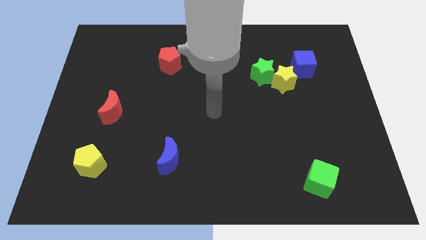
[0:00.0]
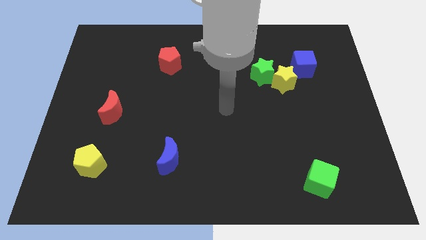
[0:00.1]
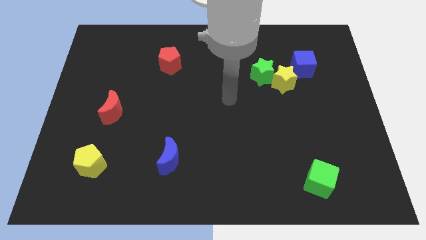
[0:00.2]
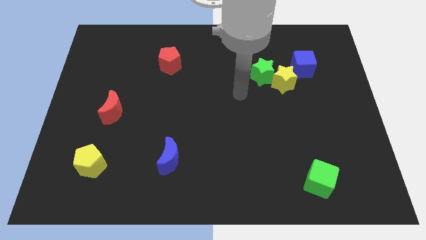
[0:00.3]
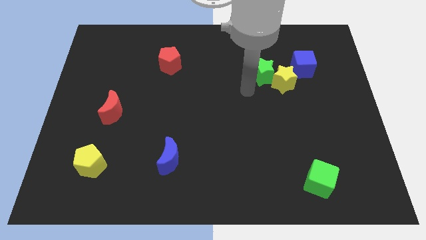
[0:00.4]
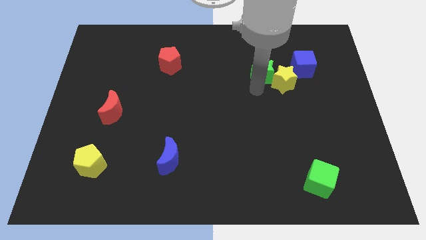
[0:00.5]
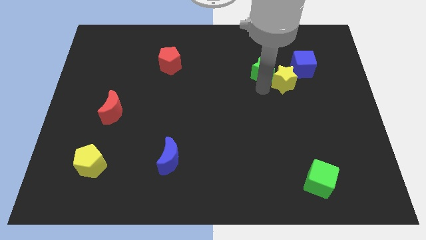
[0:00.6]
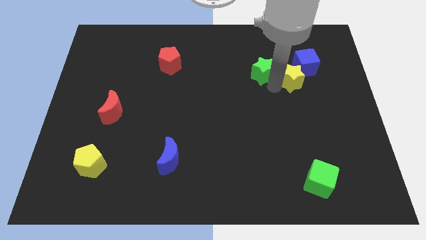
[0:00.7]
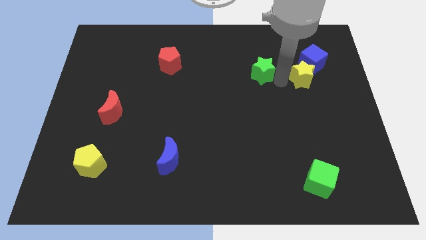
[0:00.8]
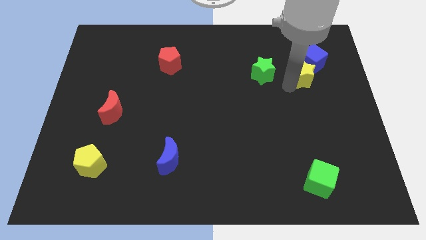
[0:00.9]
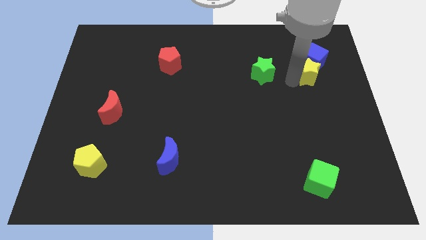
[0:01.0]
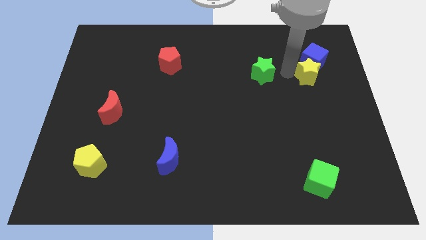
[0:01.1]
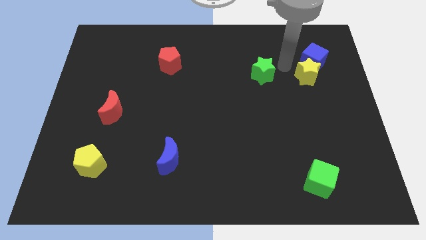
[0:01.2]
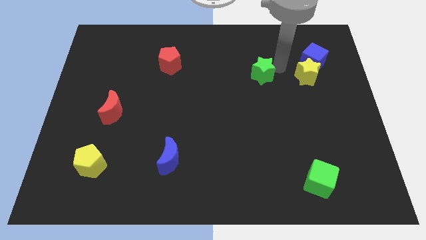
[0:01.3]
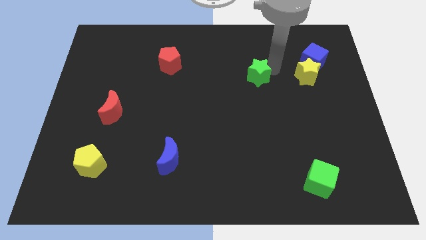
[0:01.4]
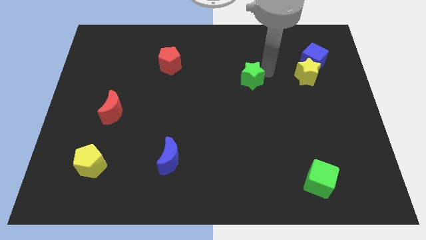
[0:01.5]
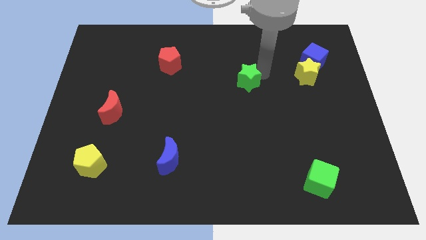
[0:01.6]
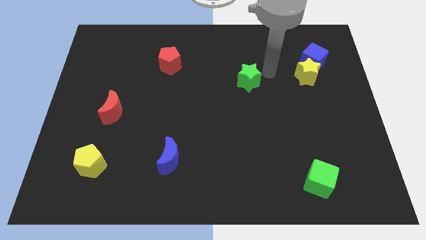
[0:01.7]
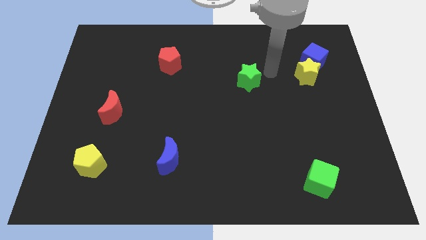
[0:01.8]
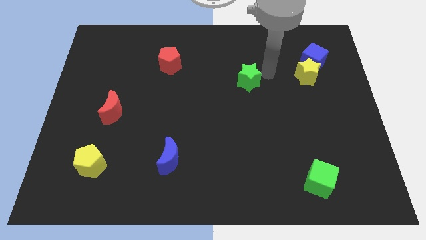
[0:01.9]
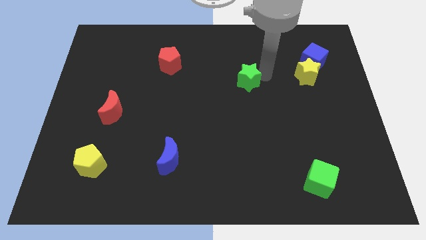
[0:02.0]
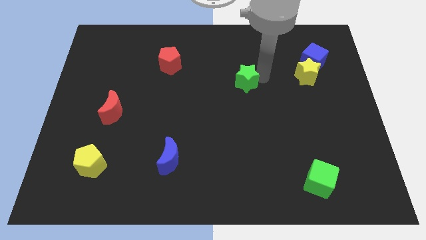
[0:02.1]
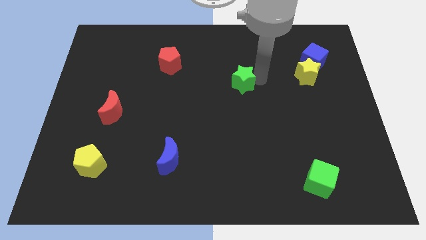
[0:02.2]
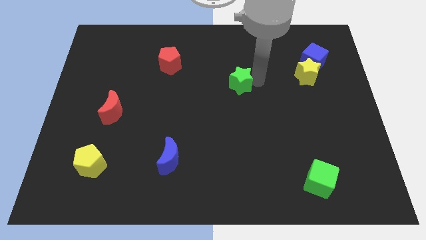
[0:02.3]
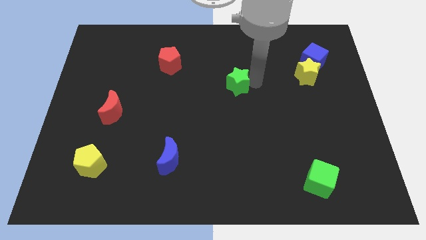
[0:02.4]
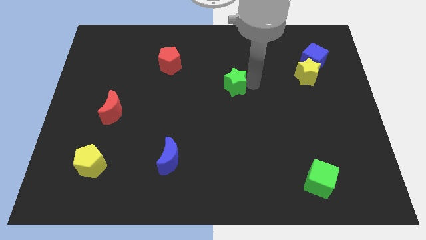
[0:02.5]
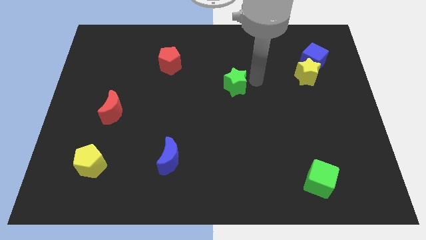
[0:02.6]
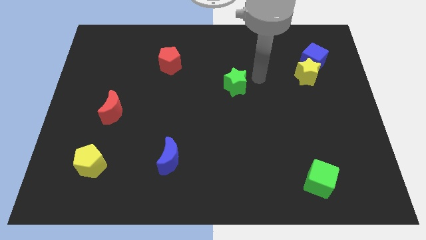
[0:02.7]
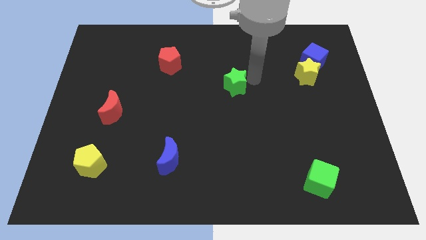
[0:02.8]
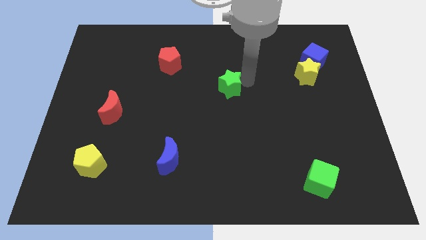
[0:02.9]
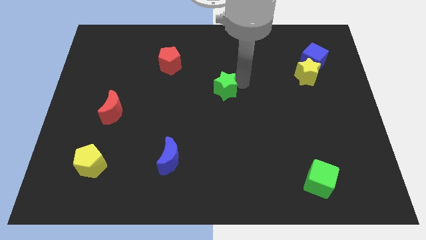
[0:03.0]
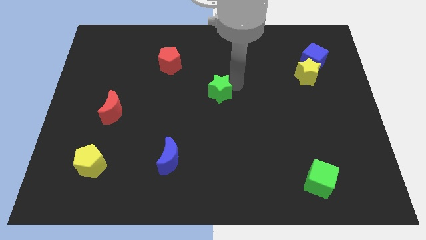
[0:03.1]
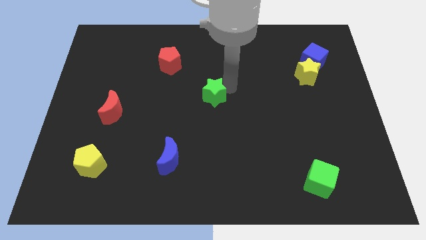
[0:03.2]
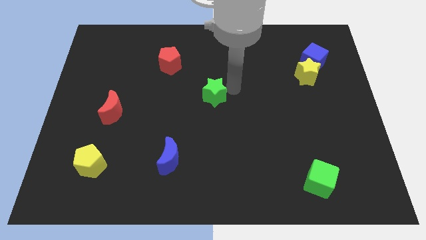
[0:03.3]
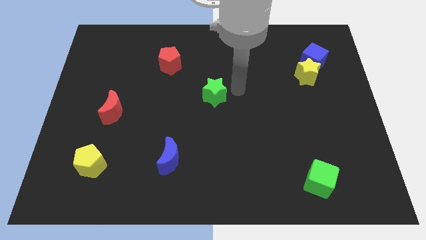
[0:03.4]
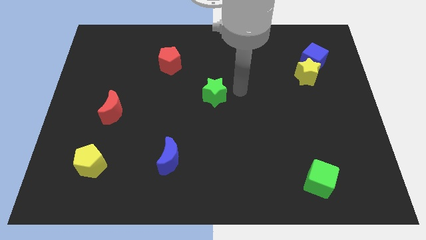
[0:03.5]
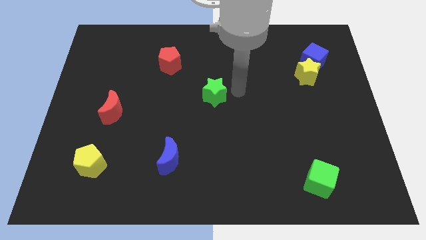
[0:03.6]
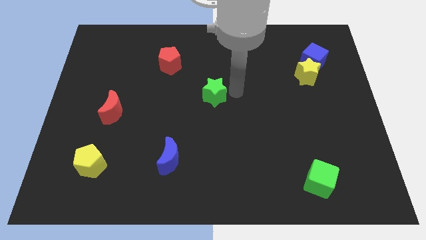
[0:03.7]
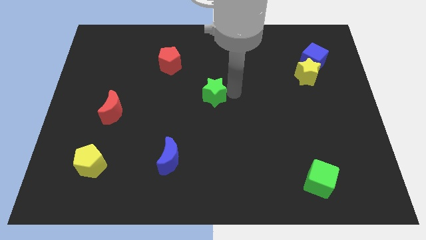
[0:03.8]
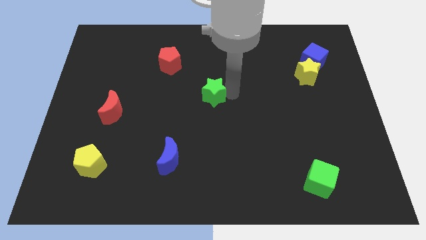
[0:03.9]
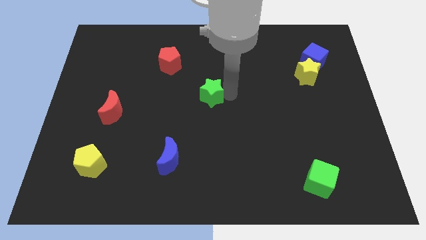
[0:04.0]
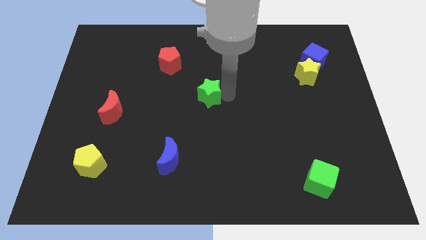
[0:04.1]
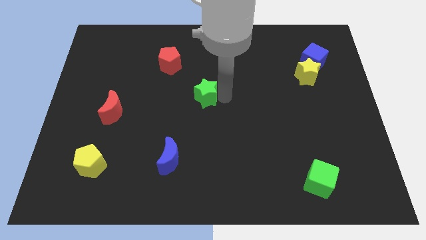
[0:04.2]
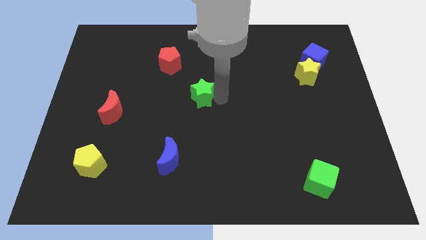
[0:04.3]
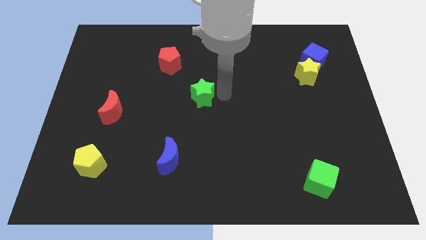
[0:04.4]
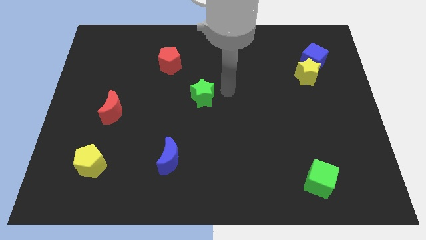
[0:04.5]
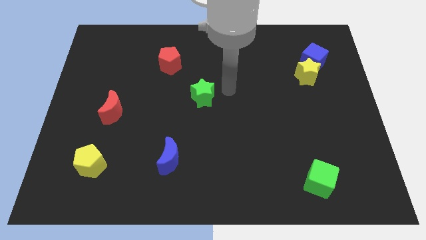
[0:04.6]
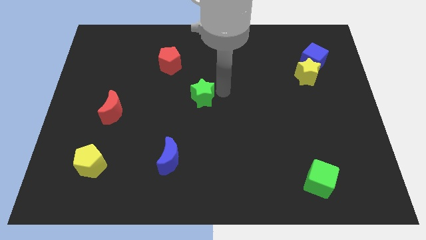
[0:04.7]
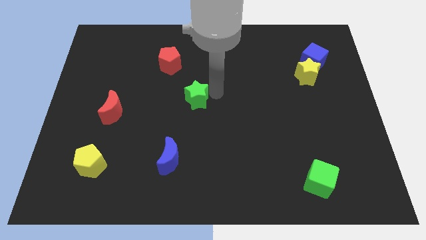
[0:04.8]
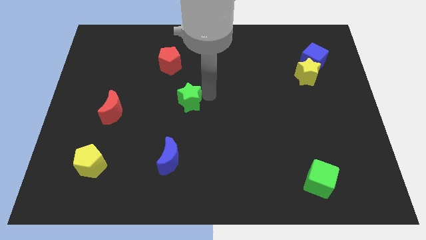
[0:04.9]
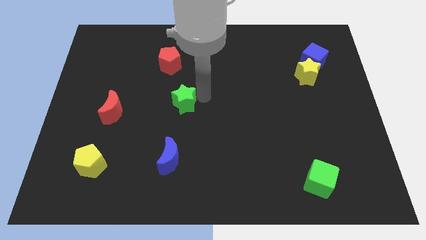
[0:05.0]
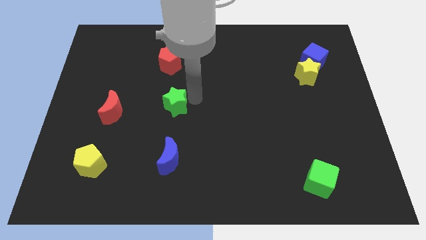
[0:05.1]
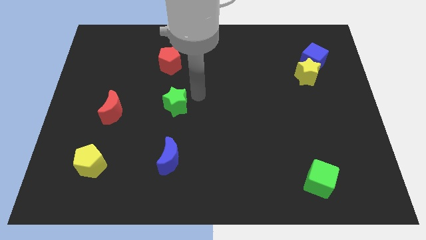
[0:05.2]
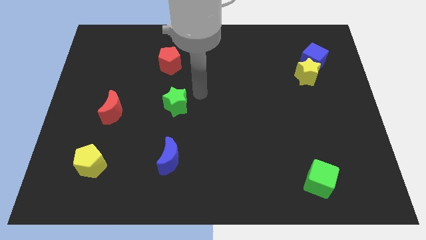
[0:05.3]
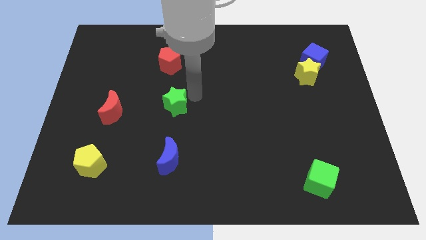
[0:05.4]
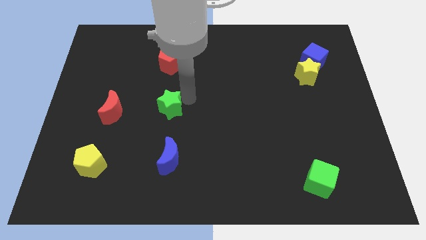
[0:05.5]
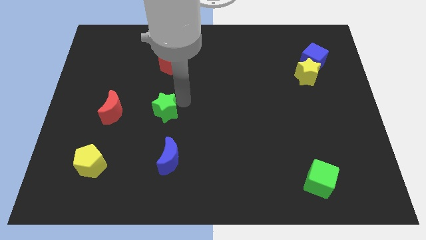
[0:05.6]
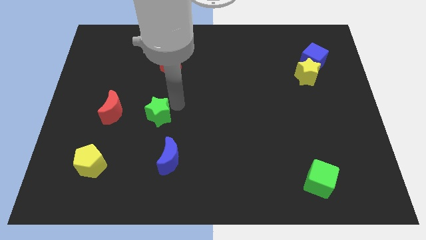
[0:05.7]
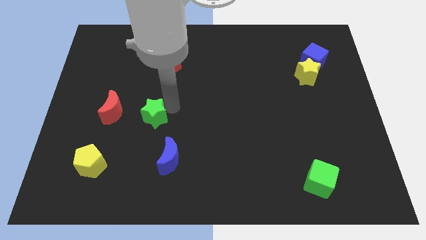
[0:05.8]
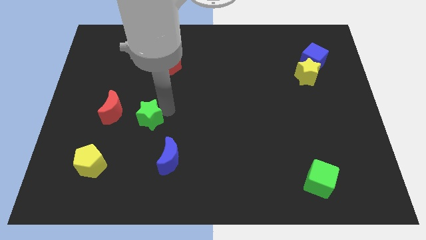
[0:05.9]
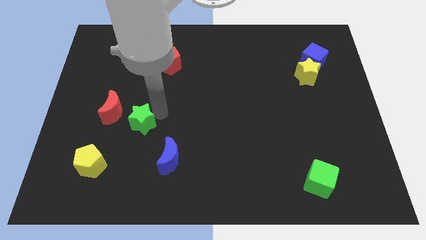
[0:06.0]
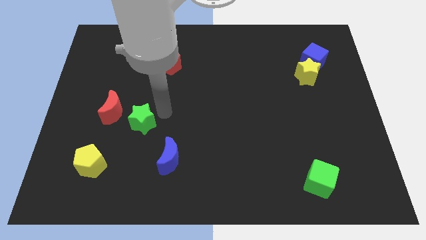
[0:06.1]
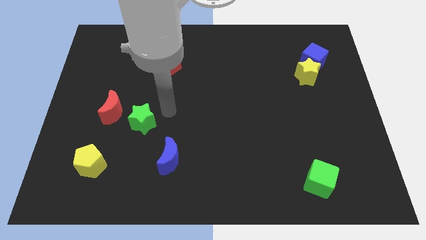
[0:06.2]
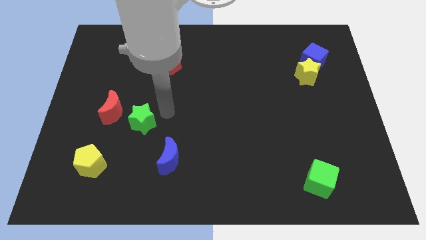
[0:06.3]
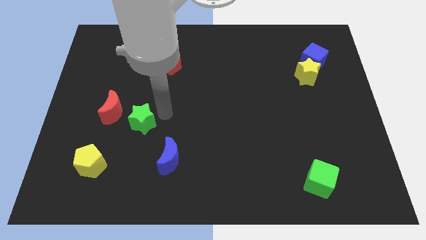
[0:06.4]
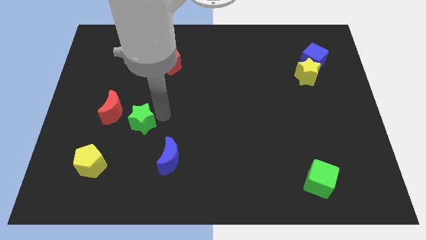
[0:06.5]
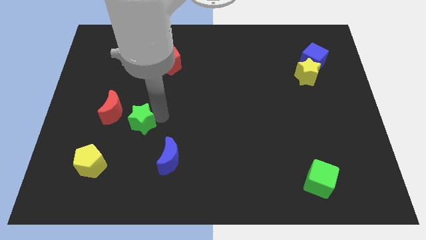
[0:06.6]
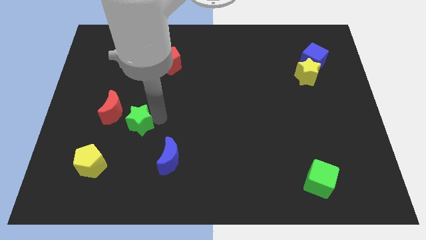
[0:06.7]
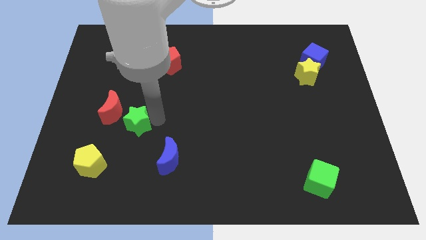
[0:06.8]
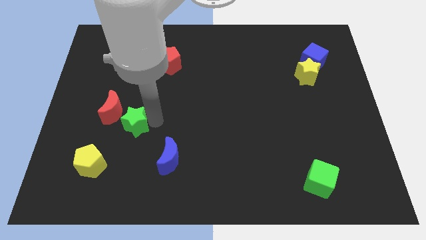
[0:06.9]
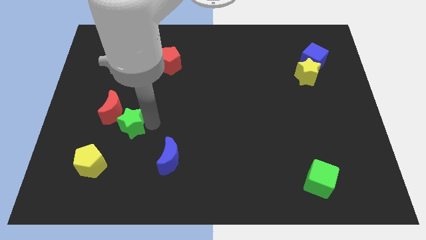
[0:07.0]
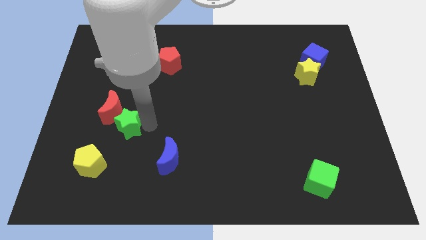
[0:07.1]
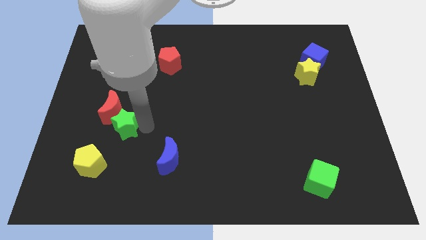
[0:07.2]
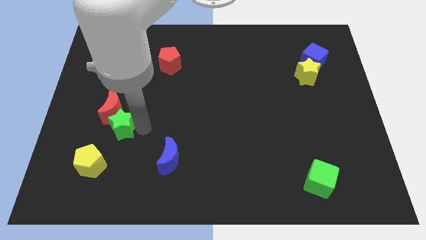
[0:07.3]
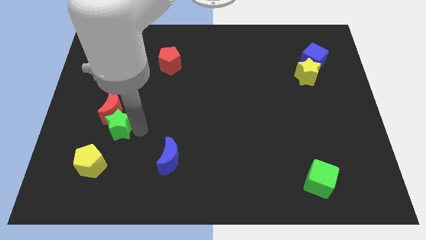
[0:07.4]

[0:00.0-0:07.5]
put the green star above the yellow pentagon
